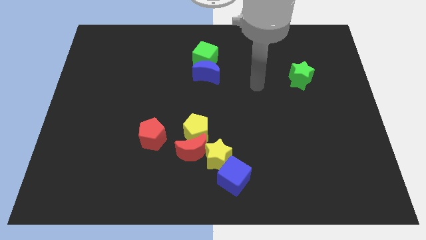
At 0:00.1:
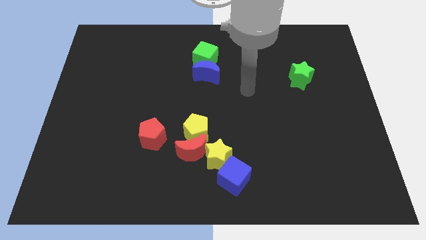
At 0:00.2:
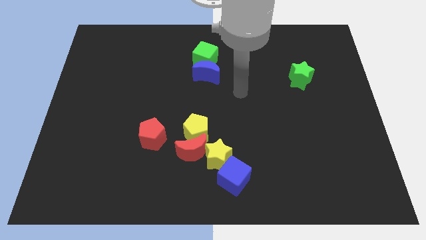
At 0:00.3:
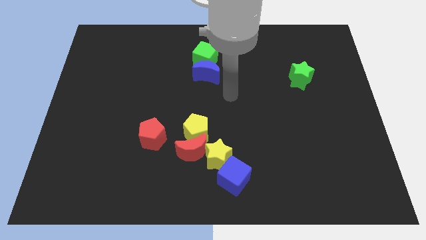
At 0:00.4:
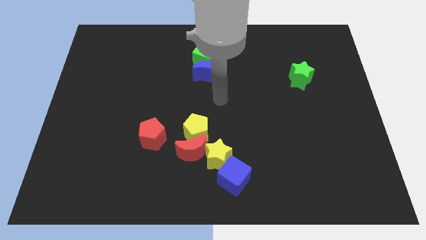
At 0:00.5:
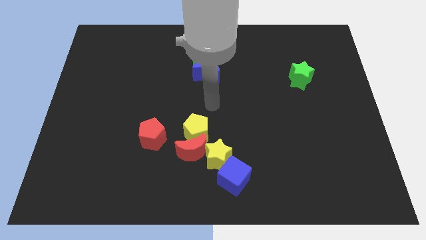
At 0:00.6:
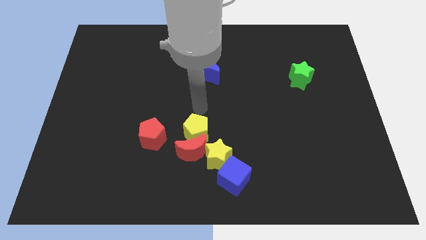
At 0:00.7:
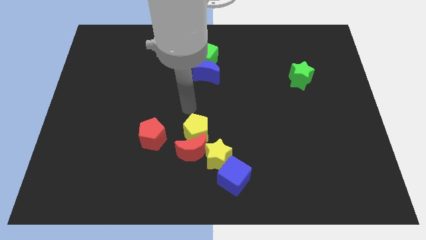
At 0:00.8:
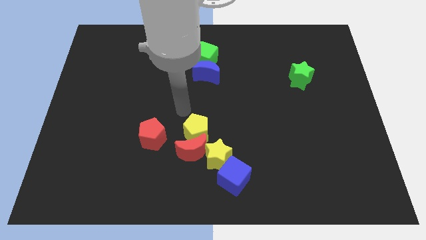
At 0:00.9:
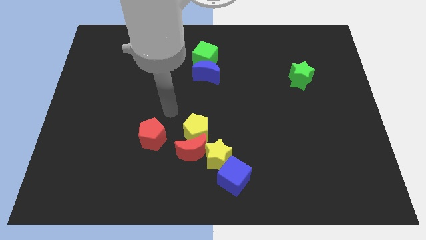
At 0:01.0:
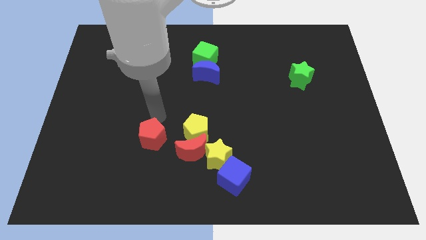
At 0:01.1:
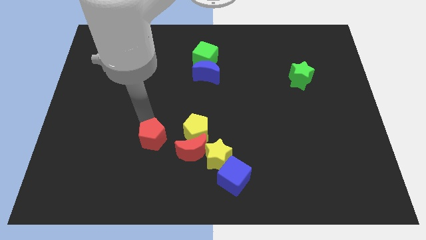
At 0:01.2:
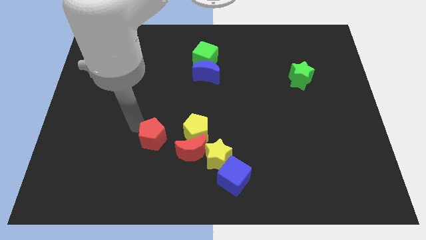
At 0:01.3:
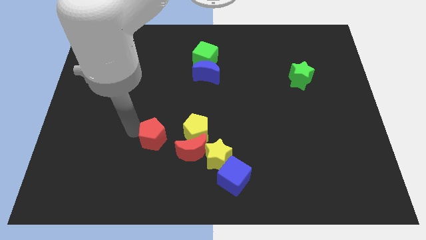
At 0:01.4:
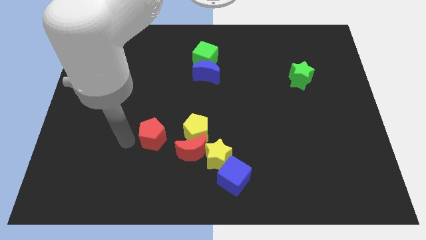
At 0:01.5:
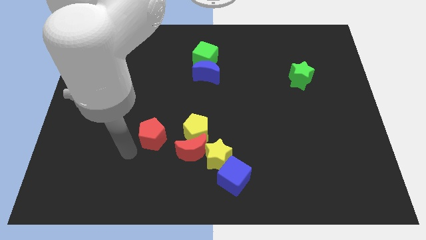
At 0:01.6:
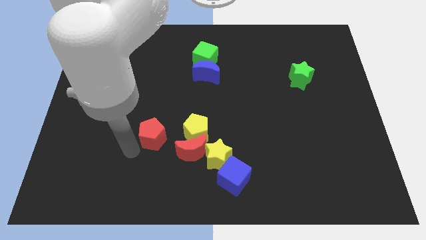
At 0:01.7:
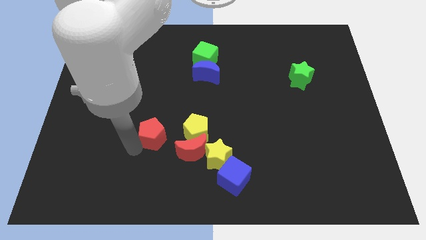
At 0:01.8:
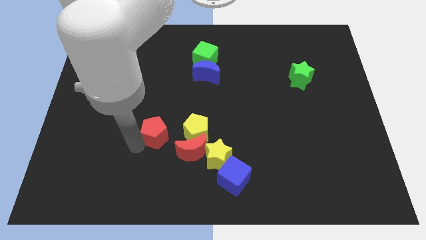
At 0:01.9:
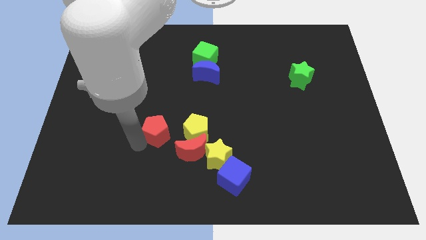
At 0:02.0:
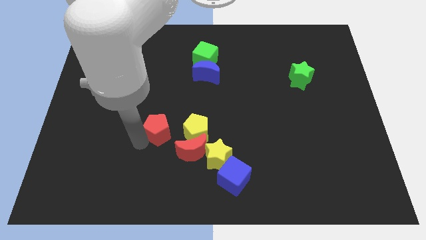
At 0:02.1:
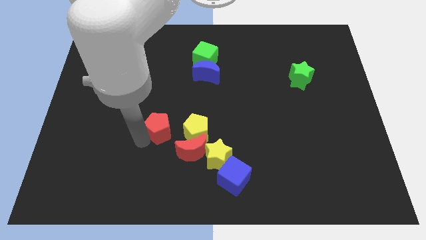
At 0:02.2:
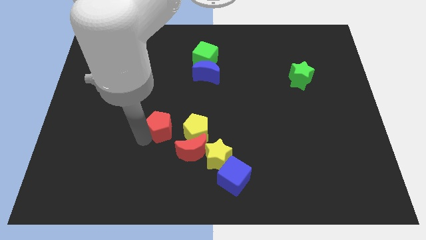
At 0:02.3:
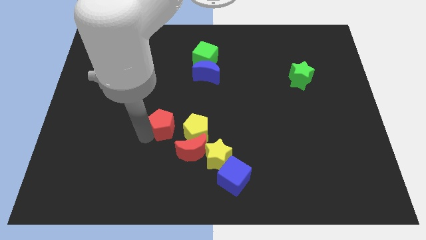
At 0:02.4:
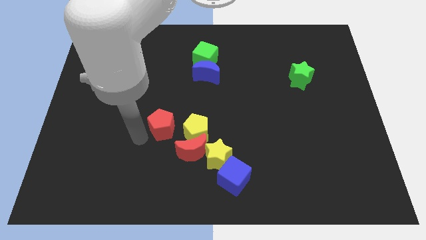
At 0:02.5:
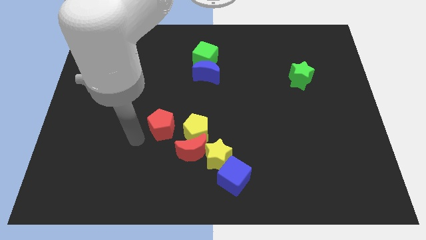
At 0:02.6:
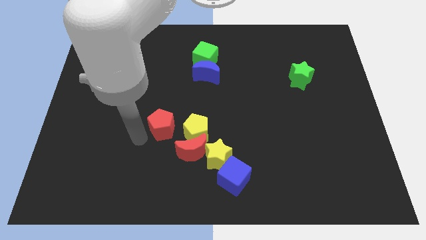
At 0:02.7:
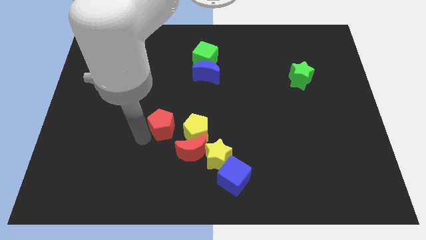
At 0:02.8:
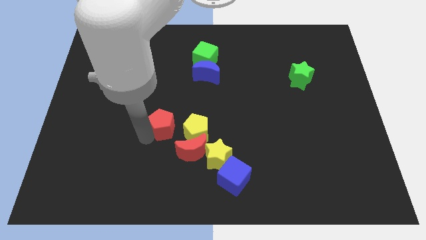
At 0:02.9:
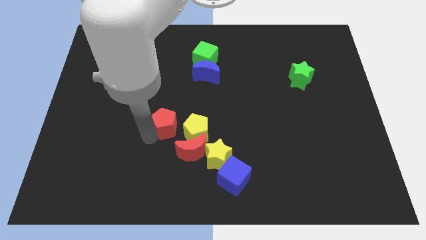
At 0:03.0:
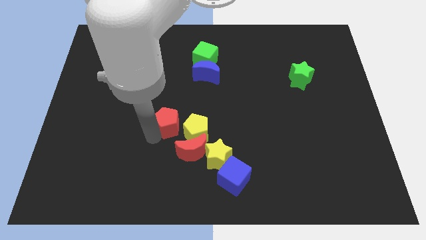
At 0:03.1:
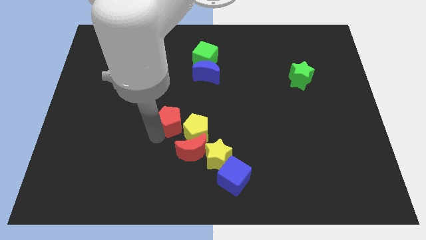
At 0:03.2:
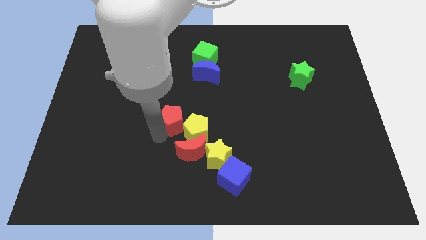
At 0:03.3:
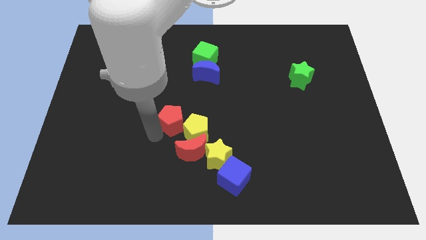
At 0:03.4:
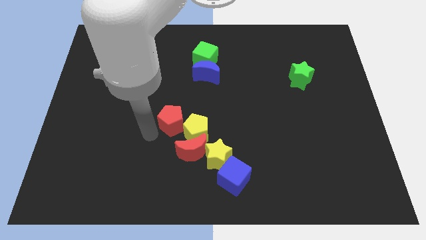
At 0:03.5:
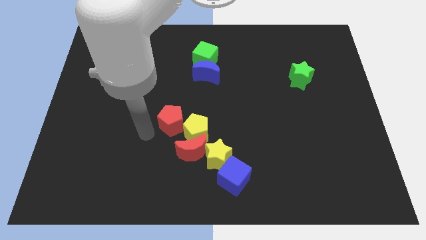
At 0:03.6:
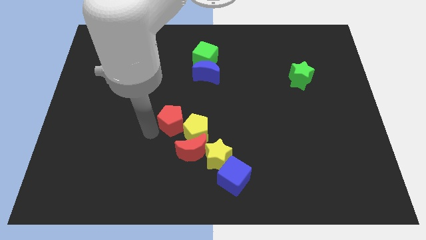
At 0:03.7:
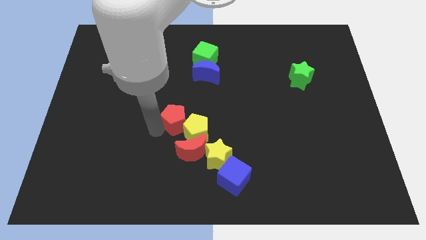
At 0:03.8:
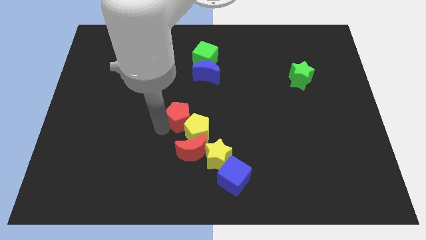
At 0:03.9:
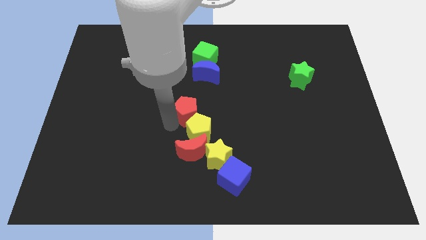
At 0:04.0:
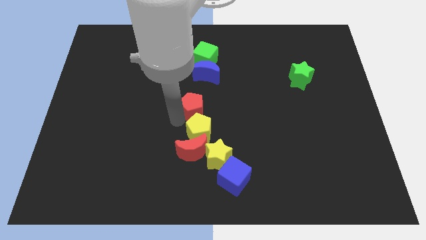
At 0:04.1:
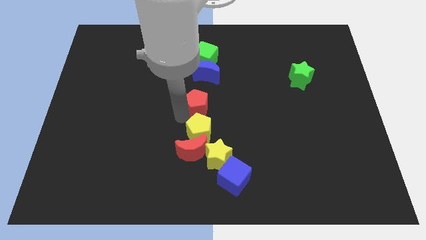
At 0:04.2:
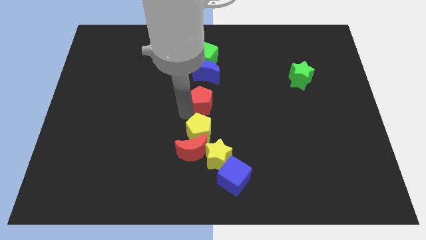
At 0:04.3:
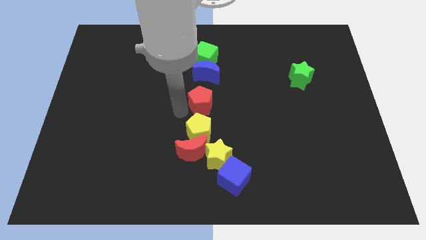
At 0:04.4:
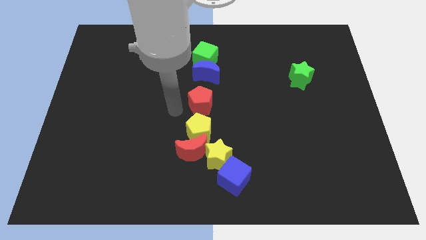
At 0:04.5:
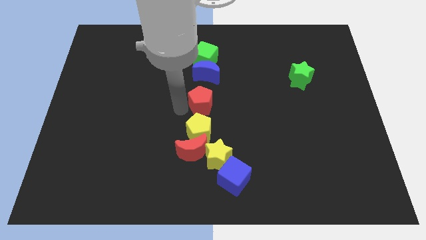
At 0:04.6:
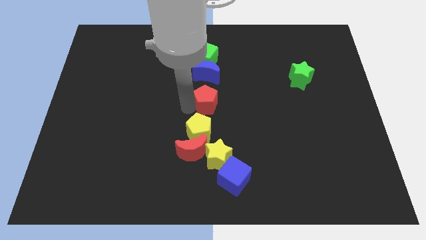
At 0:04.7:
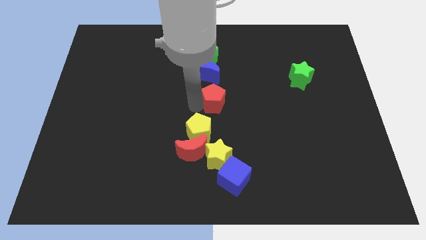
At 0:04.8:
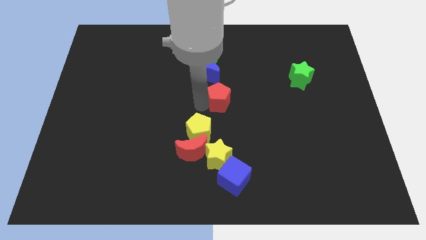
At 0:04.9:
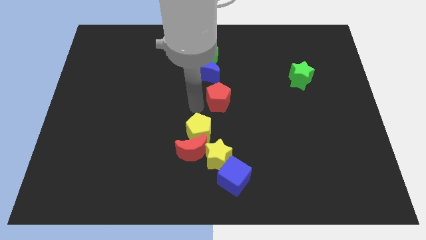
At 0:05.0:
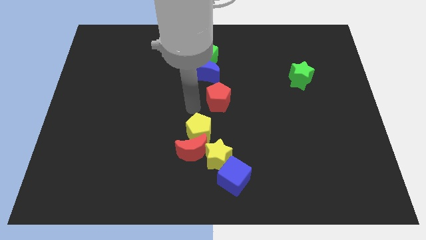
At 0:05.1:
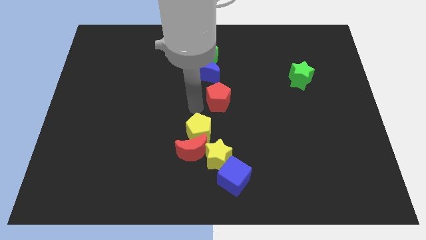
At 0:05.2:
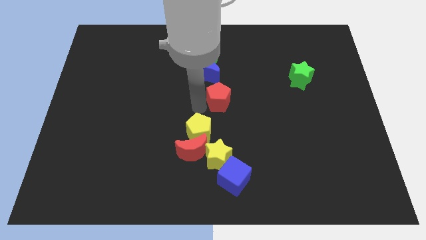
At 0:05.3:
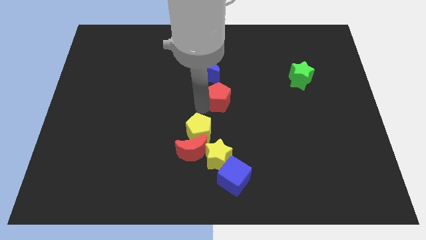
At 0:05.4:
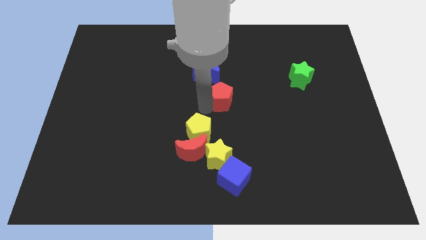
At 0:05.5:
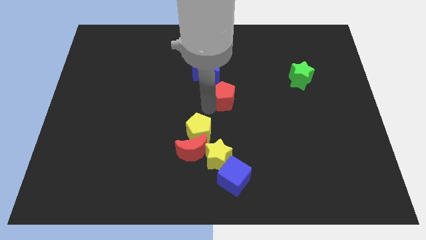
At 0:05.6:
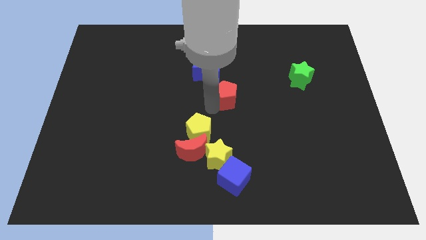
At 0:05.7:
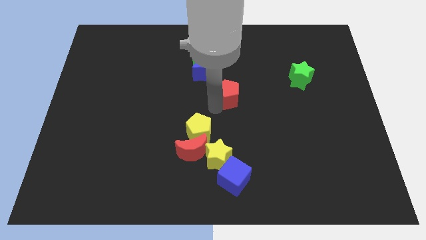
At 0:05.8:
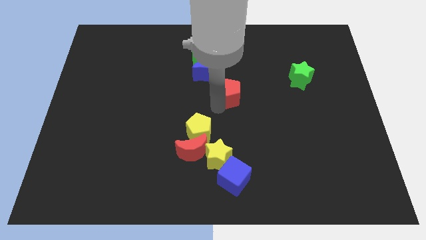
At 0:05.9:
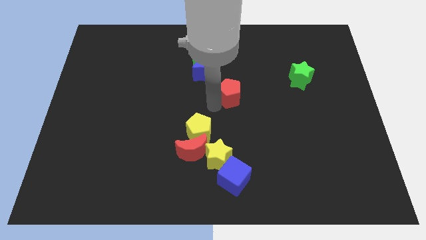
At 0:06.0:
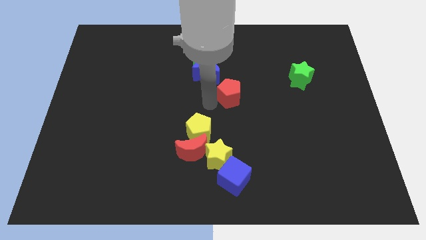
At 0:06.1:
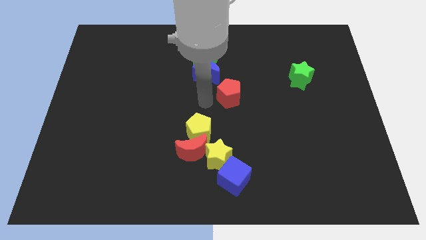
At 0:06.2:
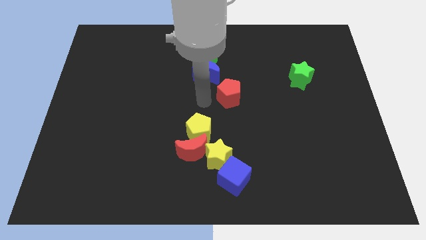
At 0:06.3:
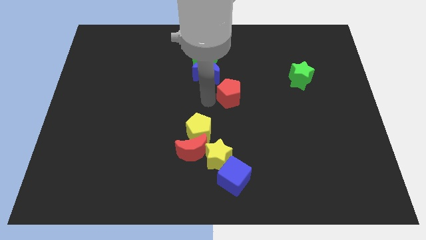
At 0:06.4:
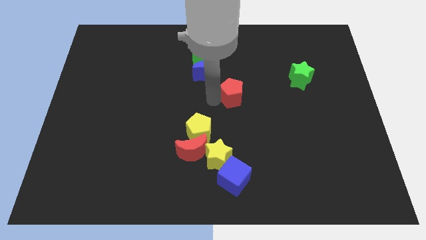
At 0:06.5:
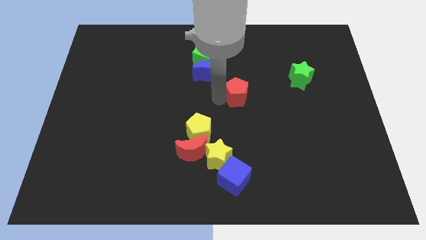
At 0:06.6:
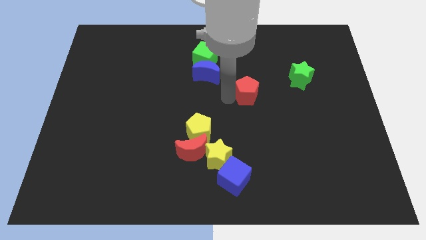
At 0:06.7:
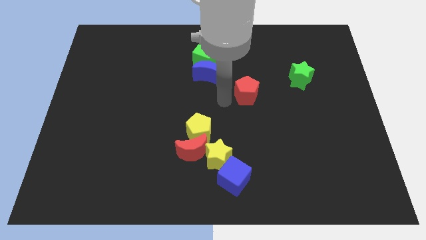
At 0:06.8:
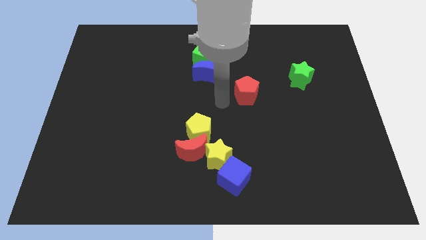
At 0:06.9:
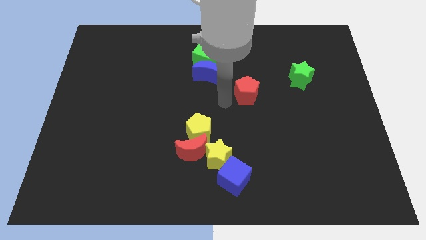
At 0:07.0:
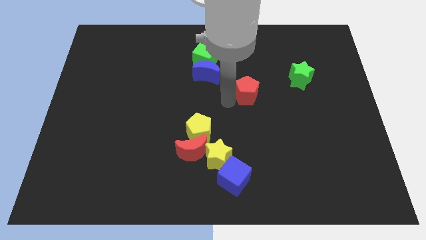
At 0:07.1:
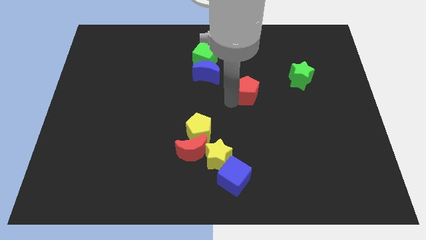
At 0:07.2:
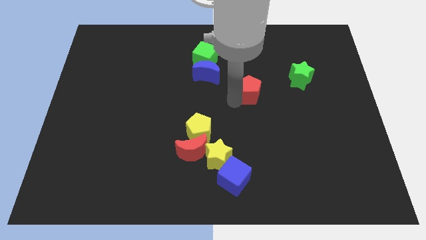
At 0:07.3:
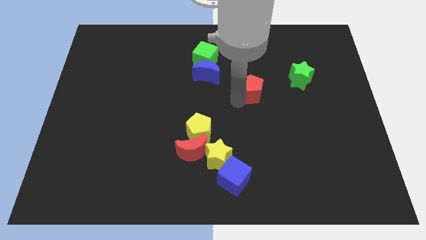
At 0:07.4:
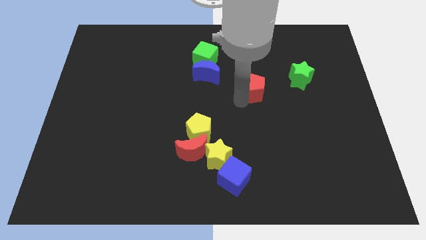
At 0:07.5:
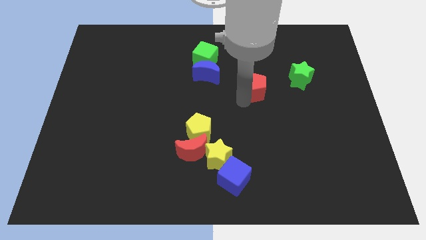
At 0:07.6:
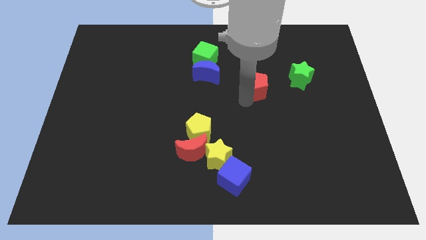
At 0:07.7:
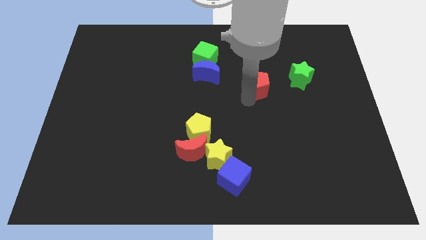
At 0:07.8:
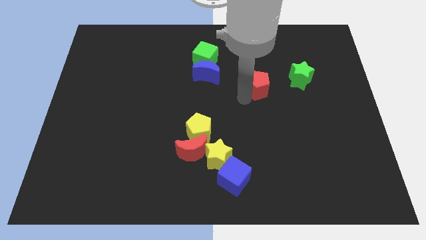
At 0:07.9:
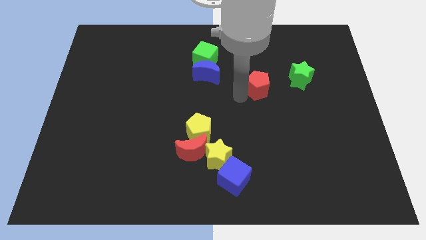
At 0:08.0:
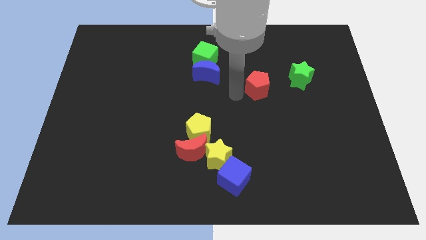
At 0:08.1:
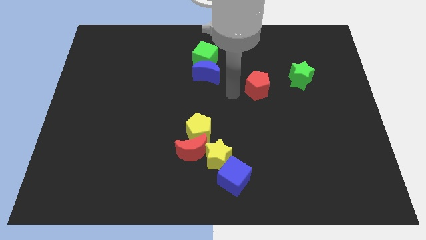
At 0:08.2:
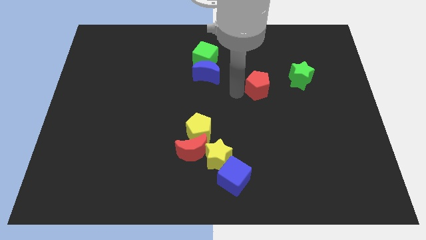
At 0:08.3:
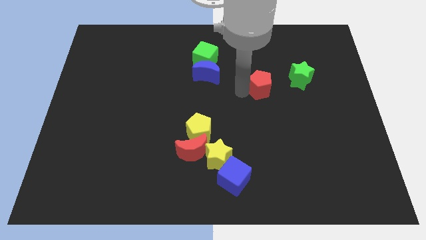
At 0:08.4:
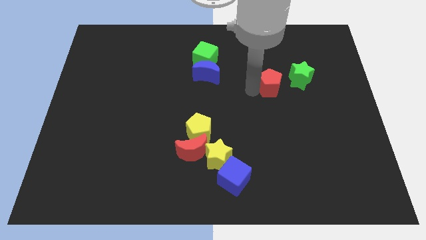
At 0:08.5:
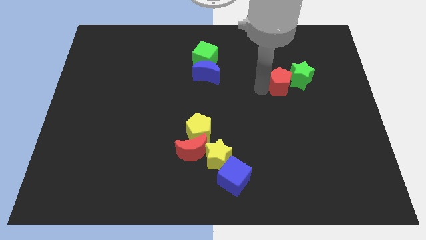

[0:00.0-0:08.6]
slide the red pentagon to the green star
